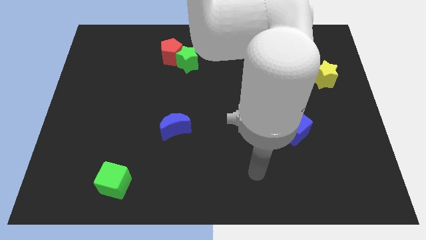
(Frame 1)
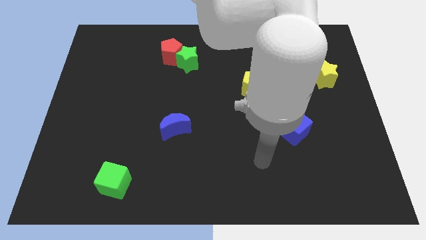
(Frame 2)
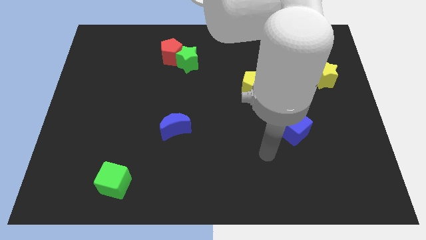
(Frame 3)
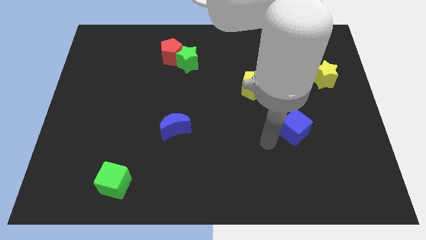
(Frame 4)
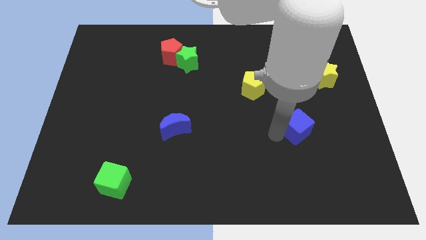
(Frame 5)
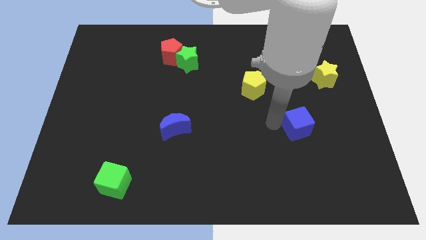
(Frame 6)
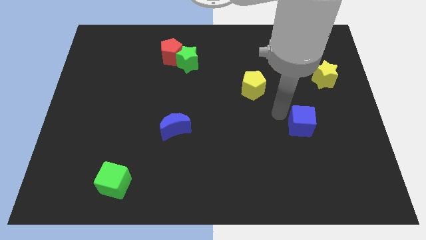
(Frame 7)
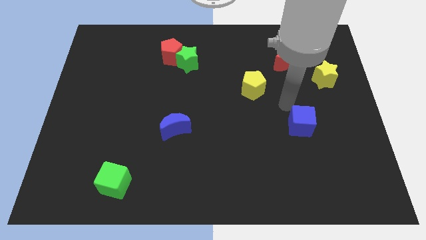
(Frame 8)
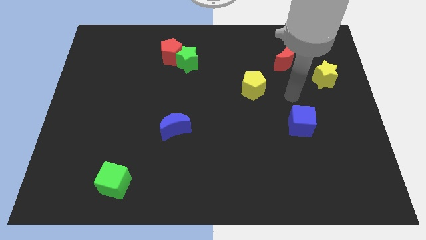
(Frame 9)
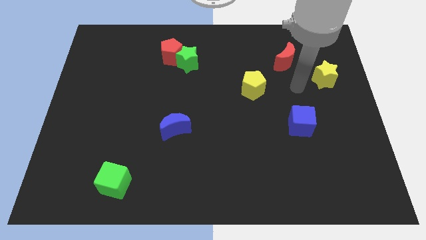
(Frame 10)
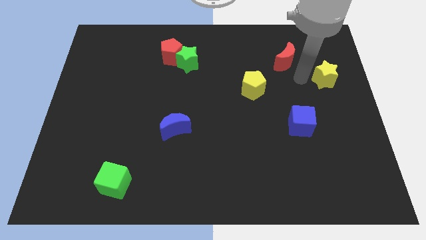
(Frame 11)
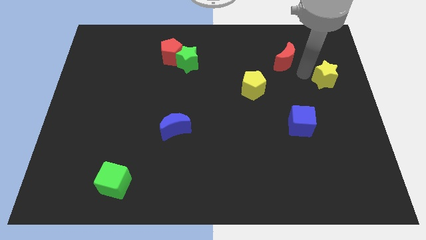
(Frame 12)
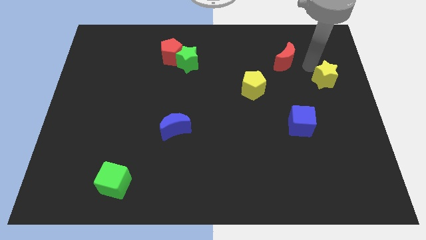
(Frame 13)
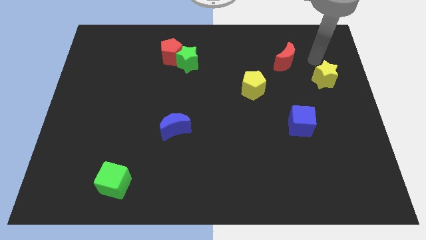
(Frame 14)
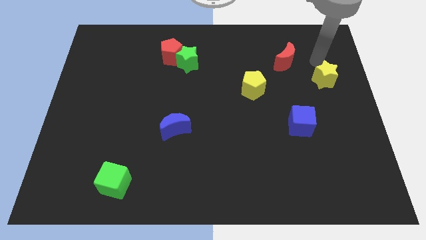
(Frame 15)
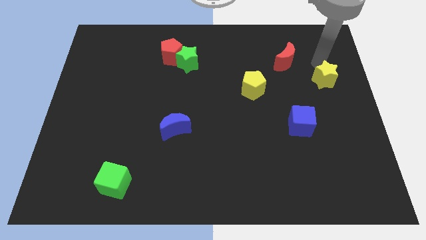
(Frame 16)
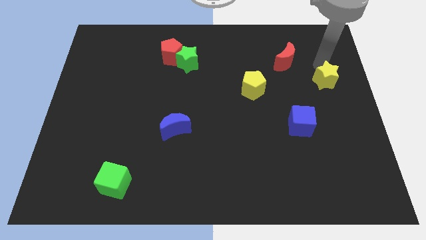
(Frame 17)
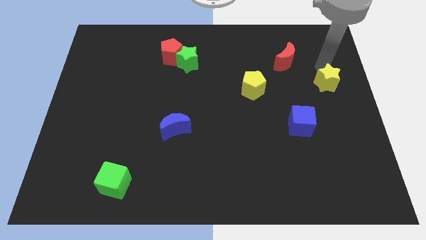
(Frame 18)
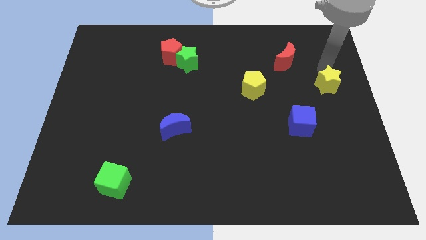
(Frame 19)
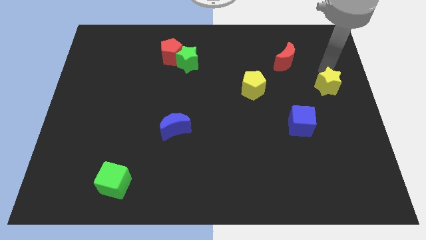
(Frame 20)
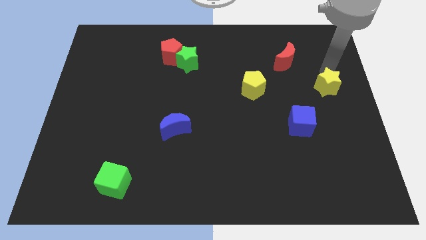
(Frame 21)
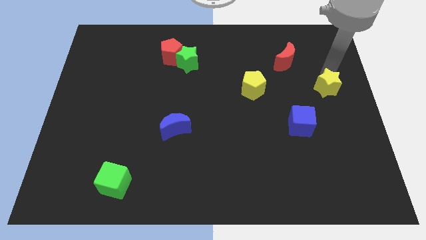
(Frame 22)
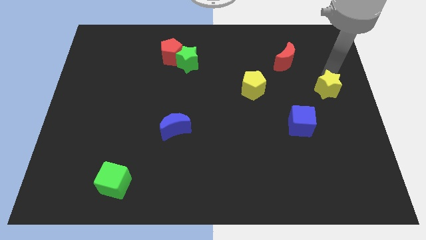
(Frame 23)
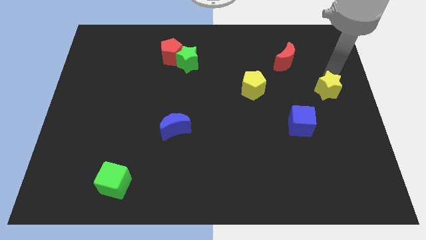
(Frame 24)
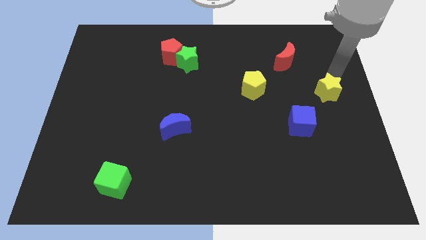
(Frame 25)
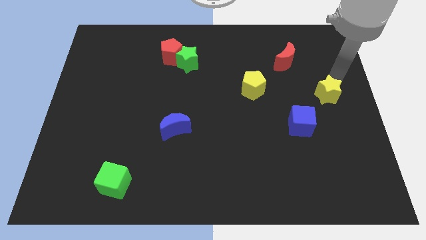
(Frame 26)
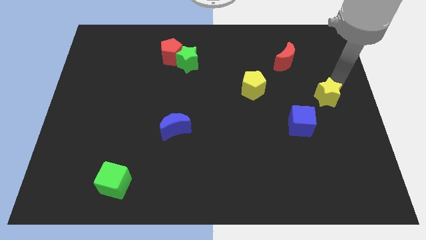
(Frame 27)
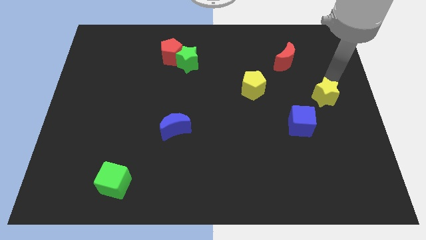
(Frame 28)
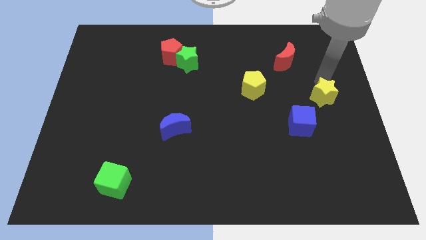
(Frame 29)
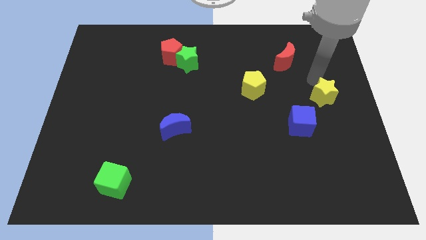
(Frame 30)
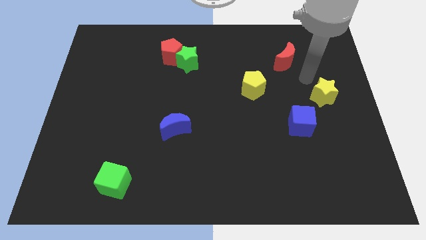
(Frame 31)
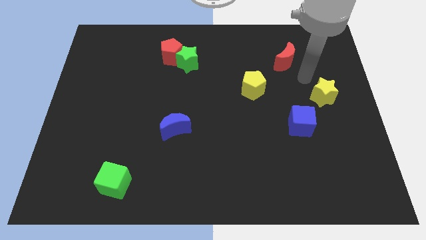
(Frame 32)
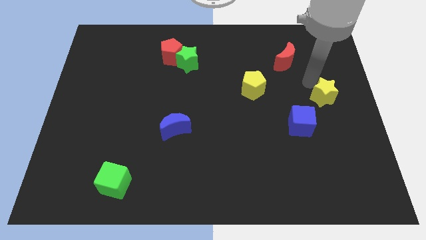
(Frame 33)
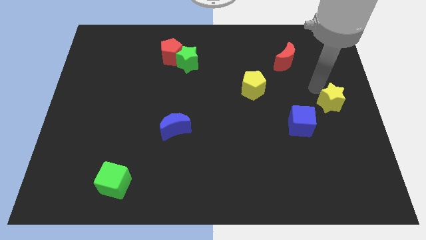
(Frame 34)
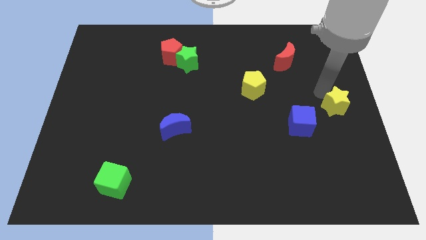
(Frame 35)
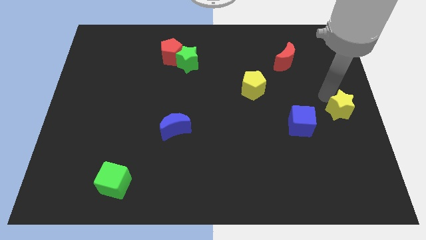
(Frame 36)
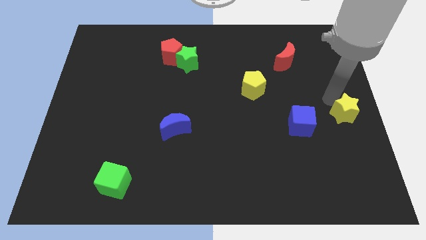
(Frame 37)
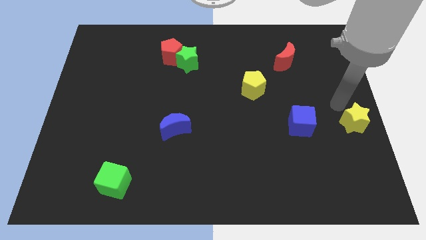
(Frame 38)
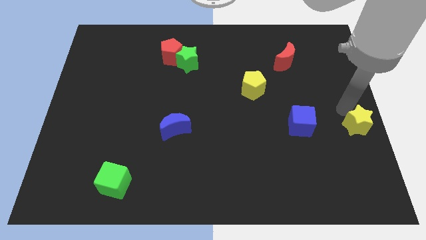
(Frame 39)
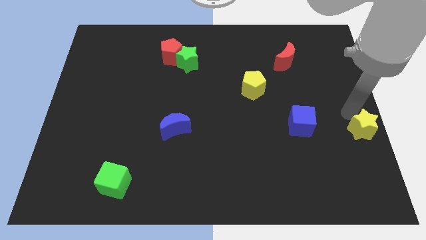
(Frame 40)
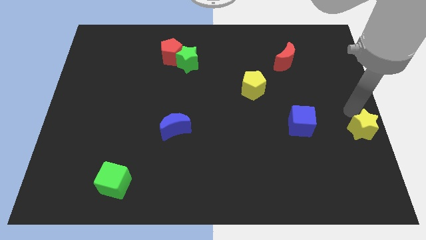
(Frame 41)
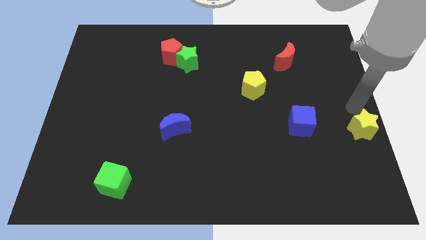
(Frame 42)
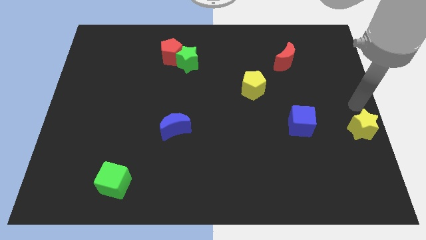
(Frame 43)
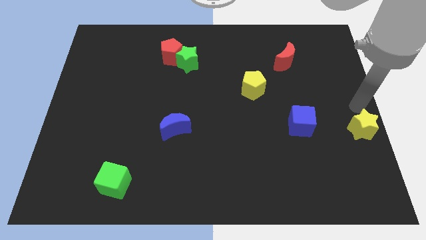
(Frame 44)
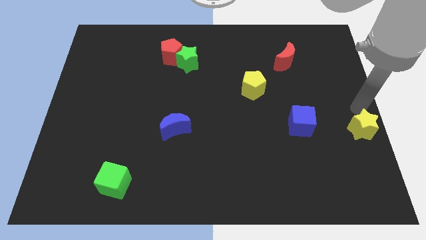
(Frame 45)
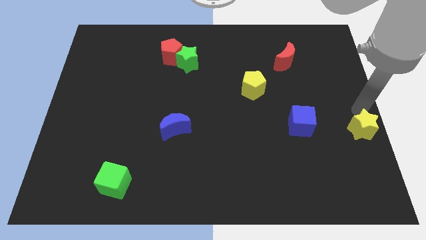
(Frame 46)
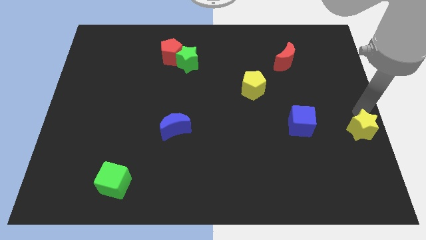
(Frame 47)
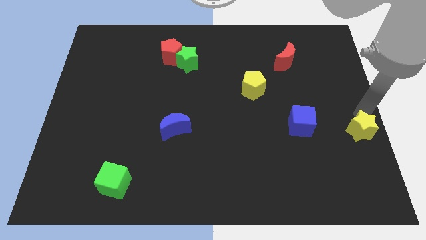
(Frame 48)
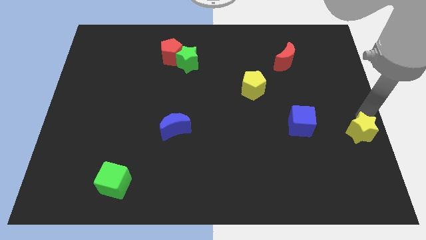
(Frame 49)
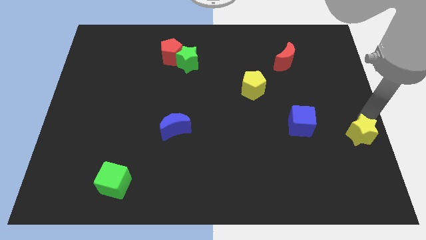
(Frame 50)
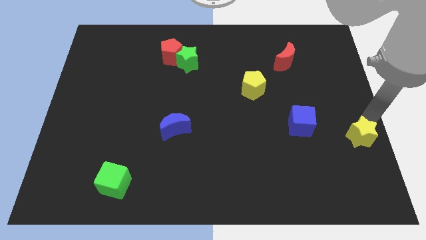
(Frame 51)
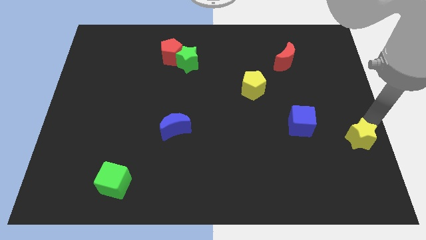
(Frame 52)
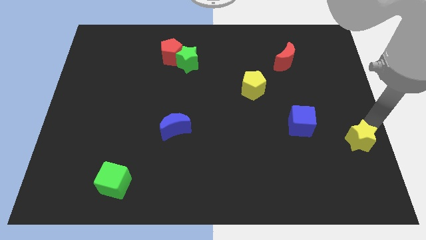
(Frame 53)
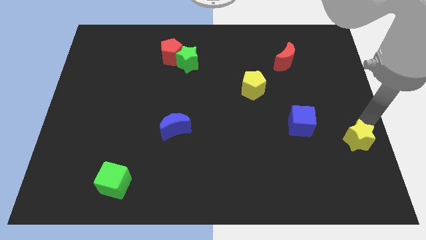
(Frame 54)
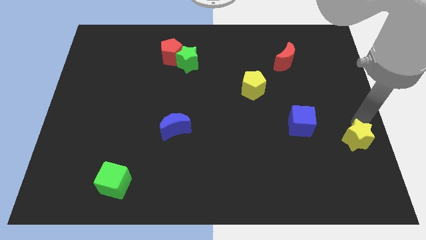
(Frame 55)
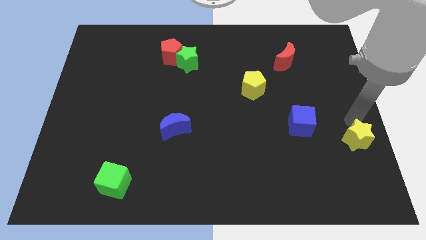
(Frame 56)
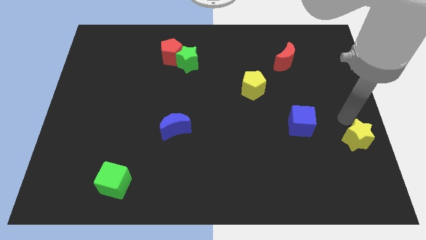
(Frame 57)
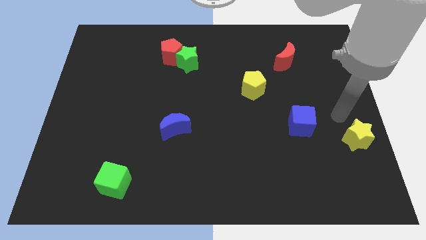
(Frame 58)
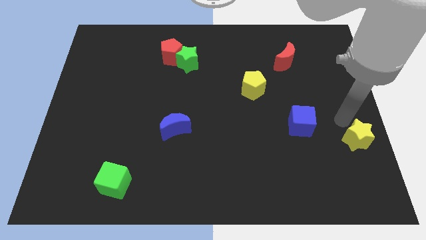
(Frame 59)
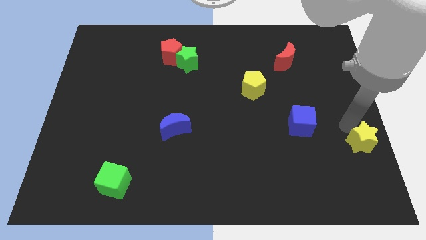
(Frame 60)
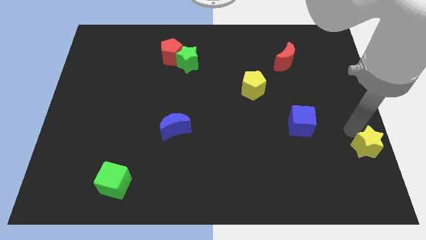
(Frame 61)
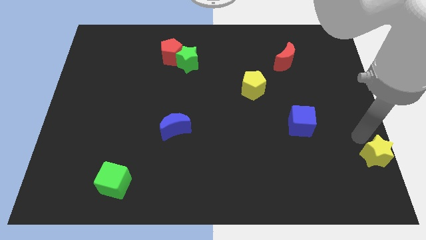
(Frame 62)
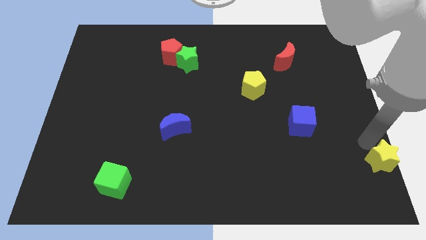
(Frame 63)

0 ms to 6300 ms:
push the yellow star to the bottom right corner

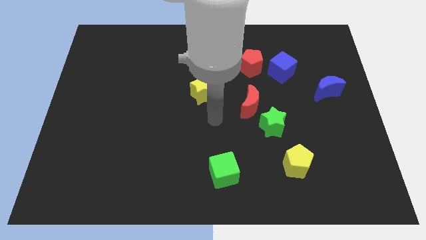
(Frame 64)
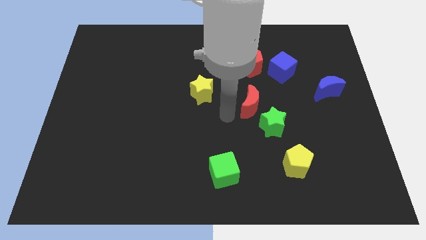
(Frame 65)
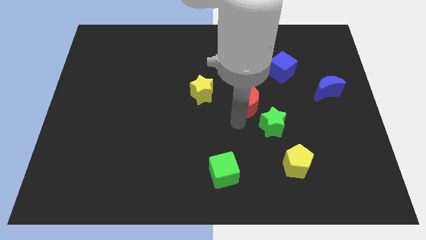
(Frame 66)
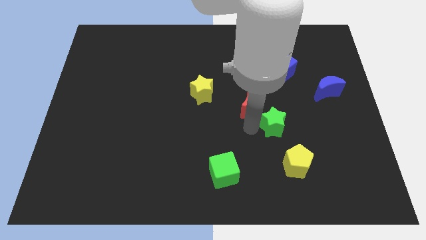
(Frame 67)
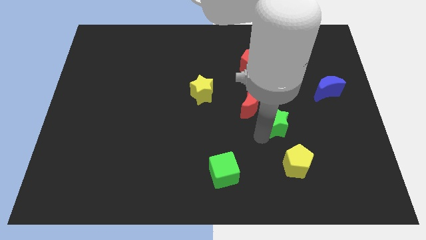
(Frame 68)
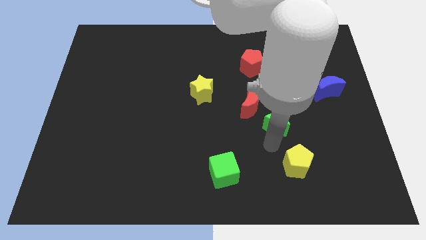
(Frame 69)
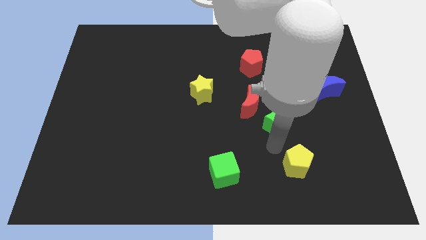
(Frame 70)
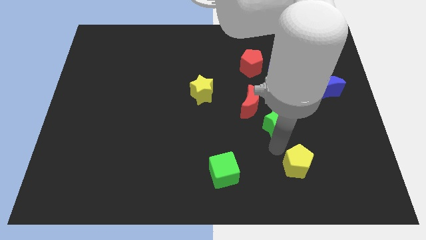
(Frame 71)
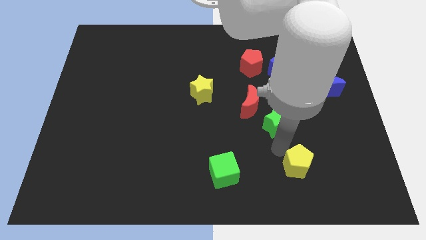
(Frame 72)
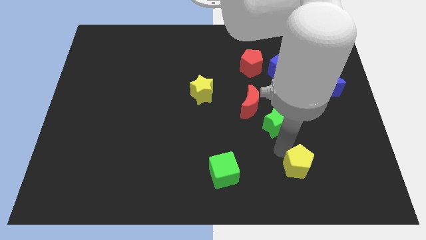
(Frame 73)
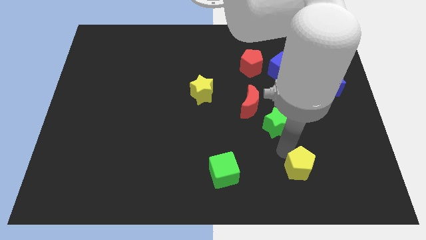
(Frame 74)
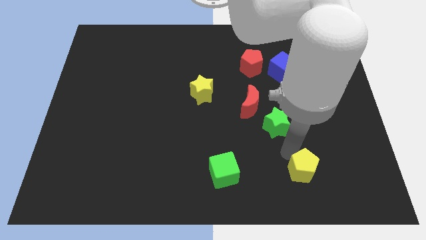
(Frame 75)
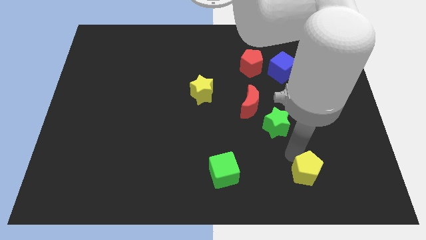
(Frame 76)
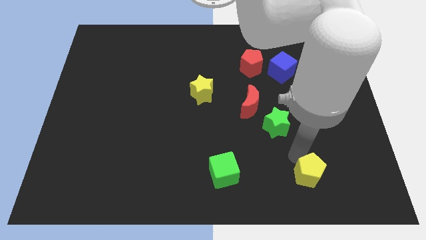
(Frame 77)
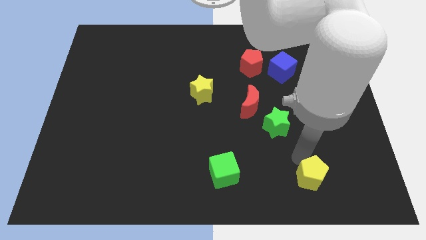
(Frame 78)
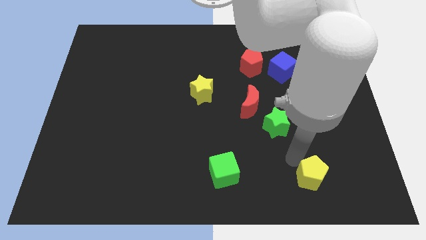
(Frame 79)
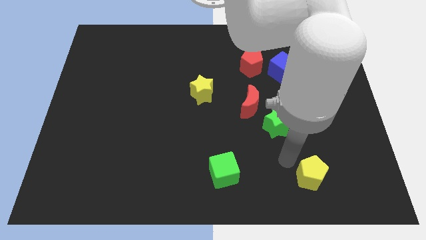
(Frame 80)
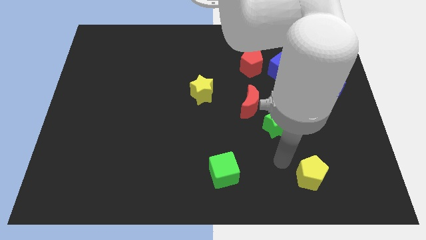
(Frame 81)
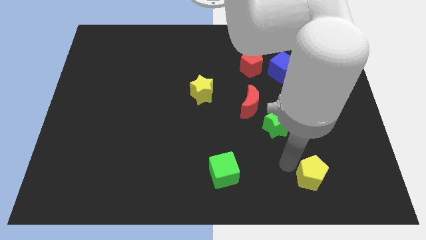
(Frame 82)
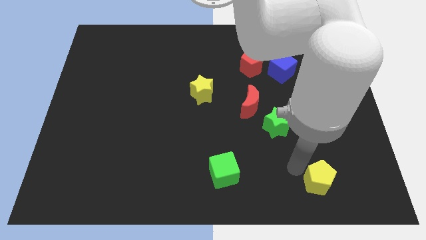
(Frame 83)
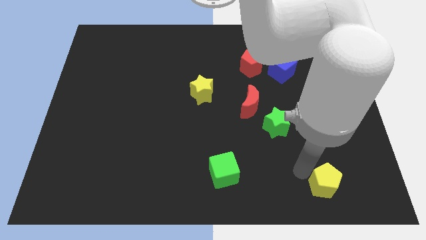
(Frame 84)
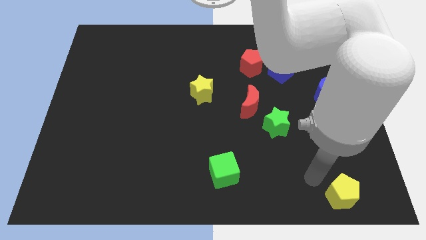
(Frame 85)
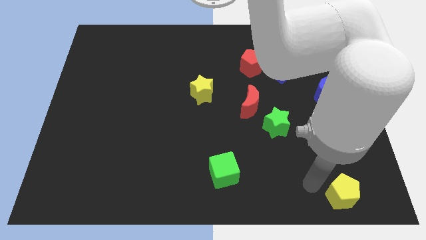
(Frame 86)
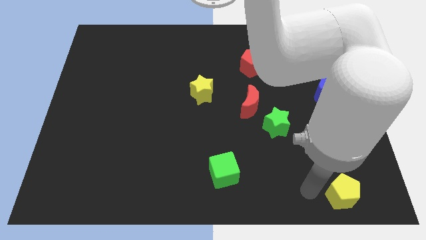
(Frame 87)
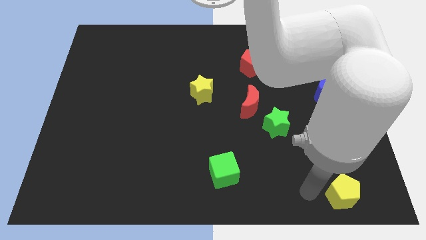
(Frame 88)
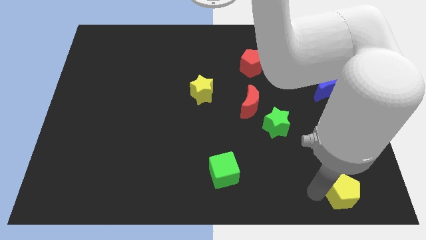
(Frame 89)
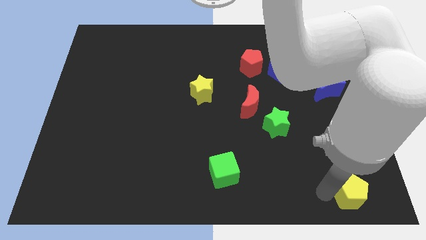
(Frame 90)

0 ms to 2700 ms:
put the yellow pentagon to the bottom right
